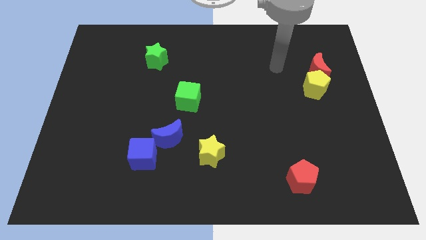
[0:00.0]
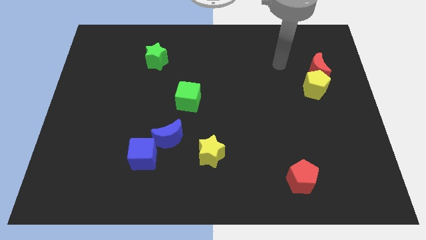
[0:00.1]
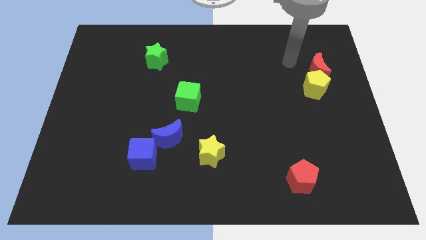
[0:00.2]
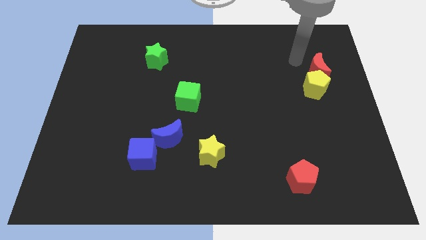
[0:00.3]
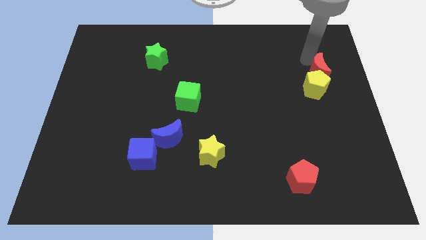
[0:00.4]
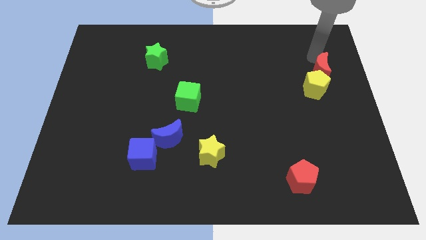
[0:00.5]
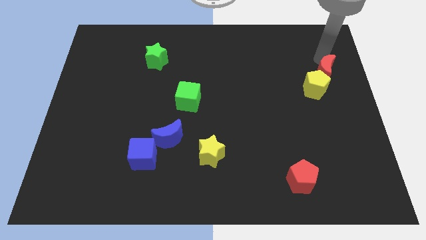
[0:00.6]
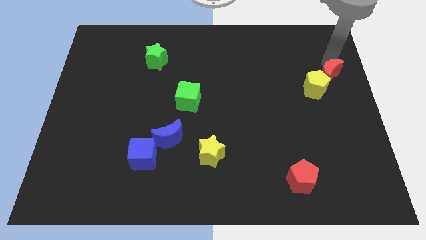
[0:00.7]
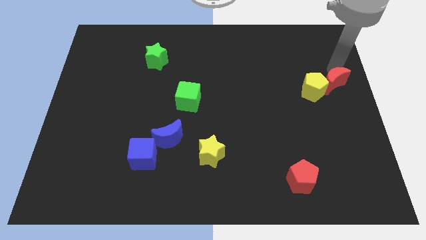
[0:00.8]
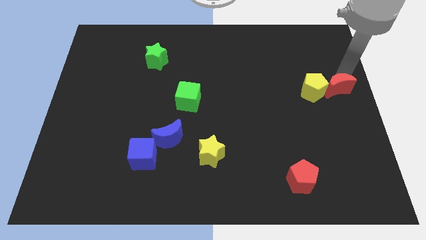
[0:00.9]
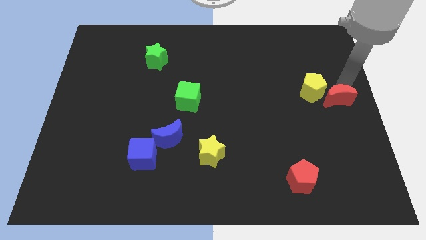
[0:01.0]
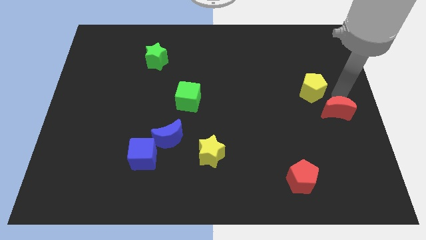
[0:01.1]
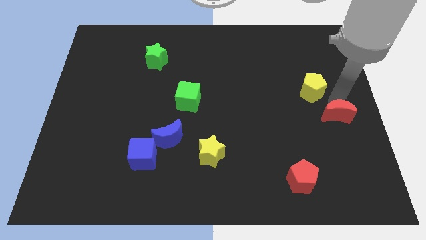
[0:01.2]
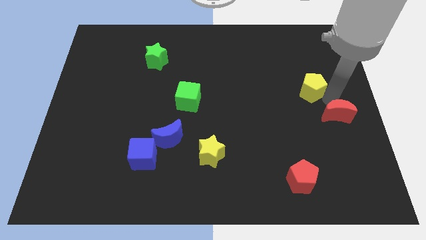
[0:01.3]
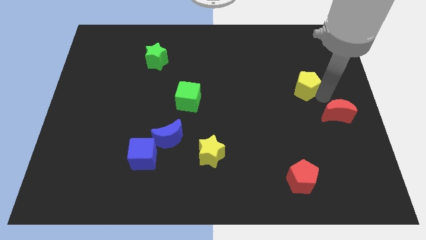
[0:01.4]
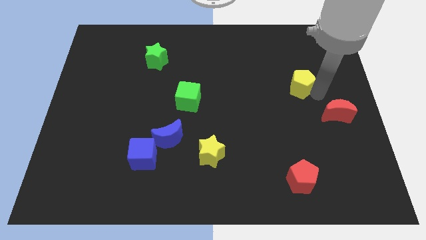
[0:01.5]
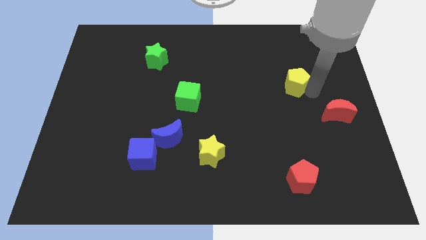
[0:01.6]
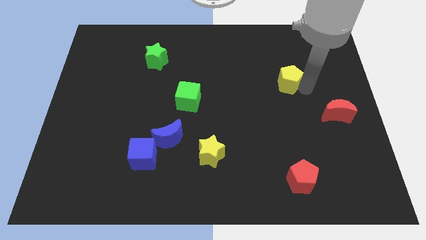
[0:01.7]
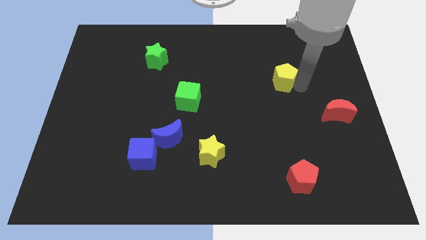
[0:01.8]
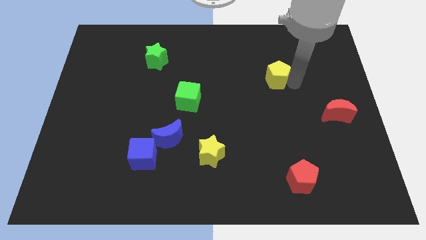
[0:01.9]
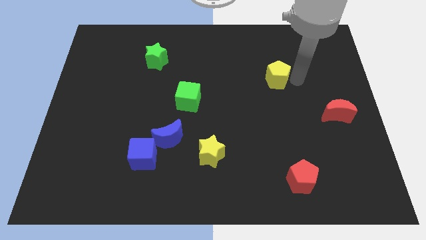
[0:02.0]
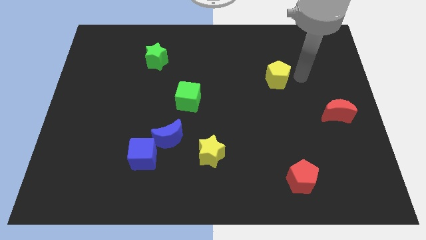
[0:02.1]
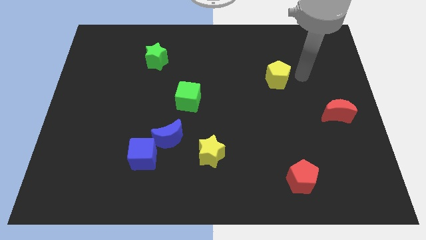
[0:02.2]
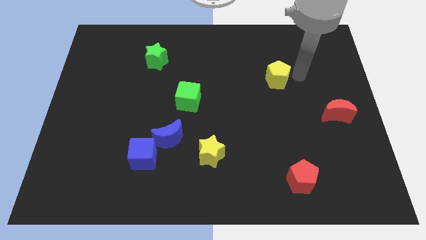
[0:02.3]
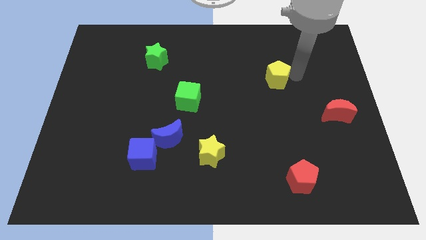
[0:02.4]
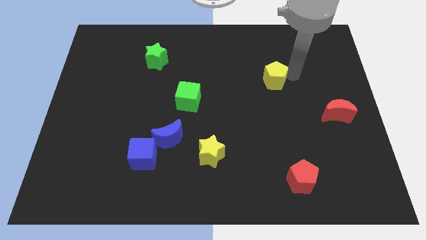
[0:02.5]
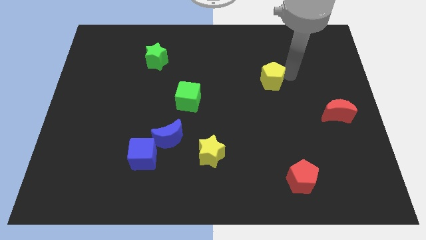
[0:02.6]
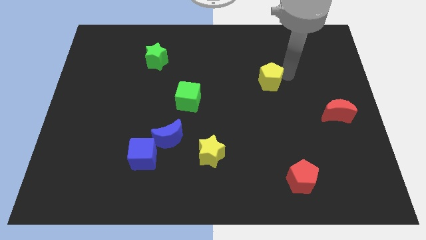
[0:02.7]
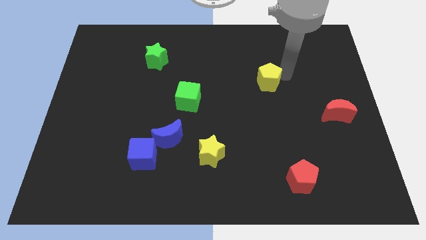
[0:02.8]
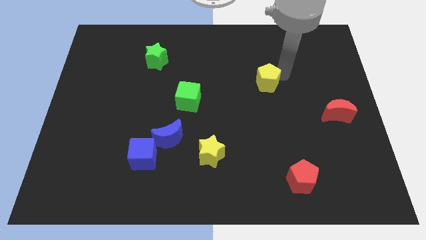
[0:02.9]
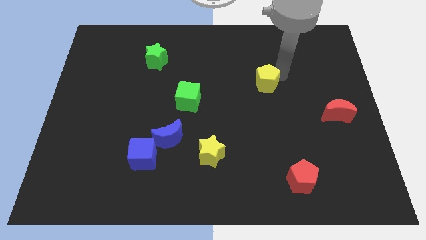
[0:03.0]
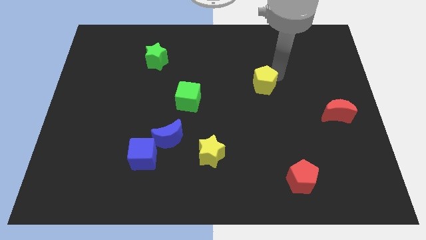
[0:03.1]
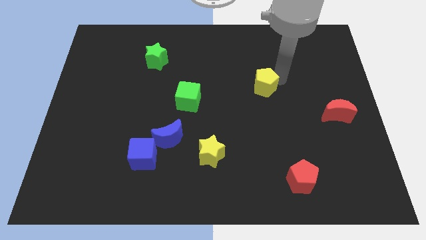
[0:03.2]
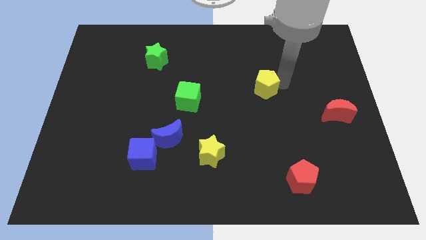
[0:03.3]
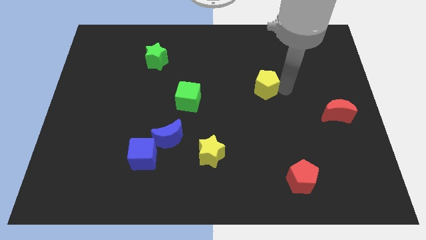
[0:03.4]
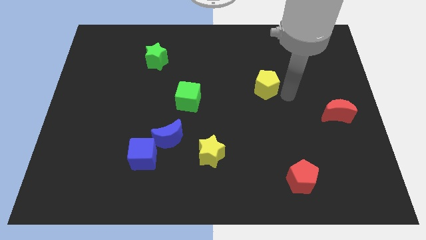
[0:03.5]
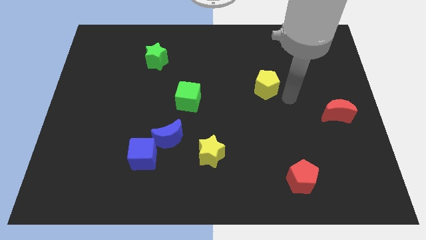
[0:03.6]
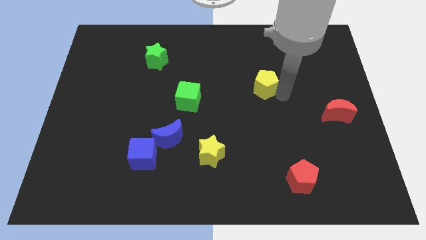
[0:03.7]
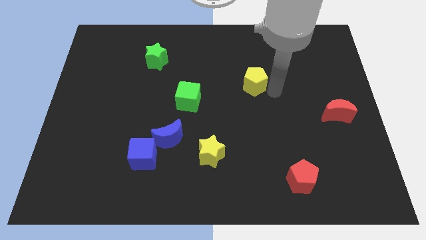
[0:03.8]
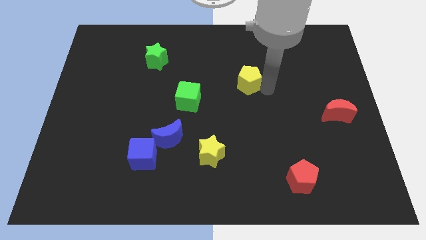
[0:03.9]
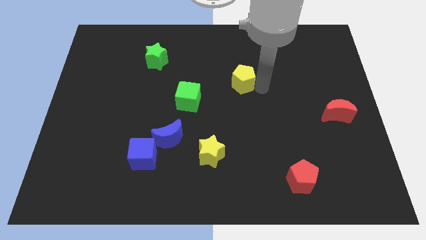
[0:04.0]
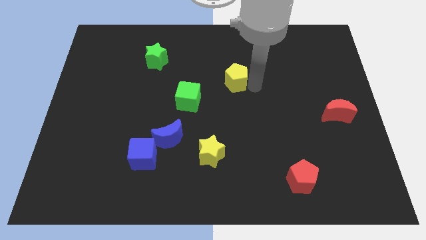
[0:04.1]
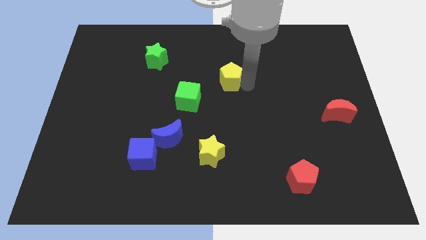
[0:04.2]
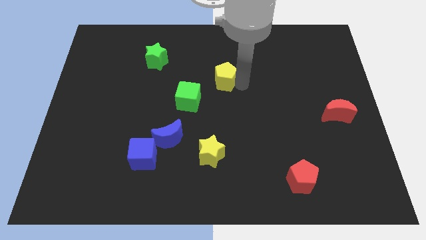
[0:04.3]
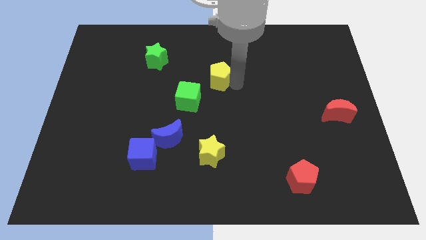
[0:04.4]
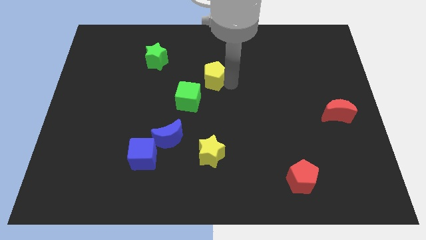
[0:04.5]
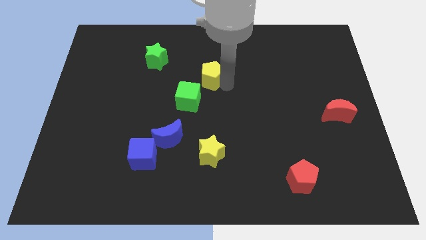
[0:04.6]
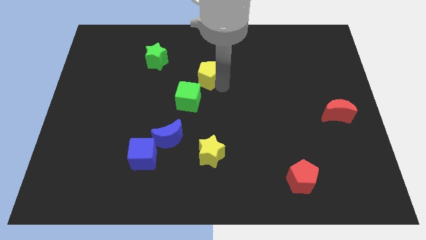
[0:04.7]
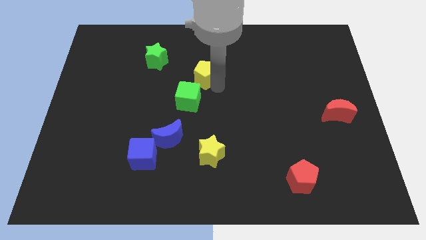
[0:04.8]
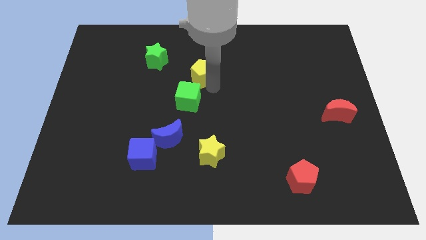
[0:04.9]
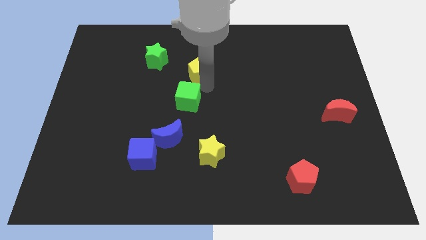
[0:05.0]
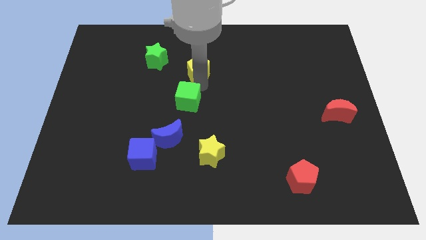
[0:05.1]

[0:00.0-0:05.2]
push the yellow pentagon to the right of the green star

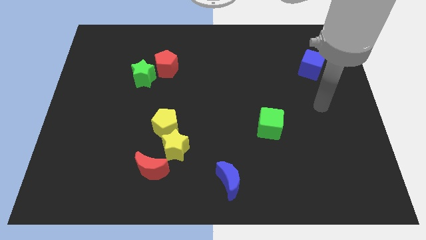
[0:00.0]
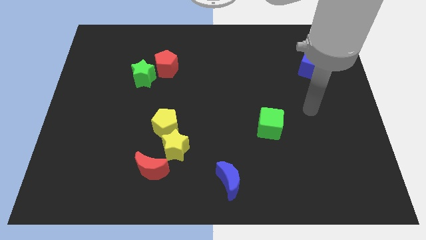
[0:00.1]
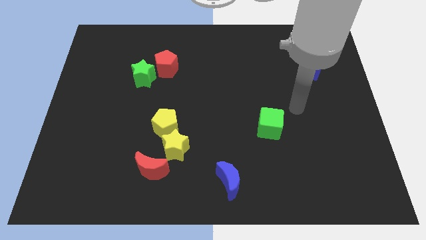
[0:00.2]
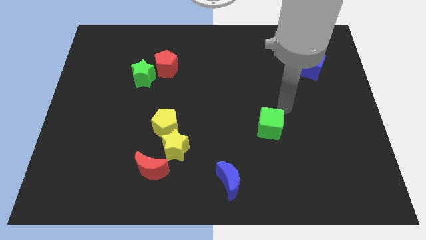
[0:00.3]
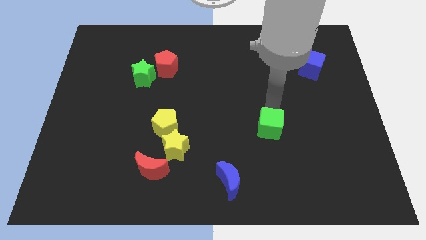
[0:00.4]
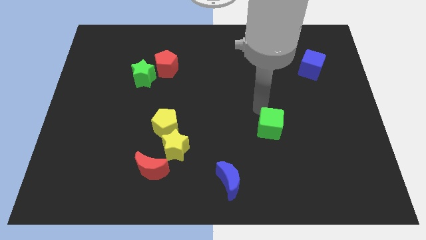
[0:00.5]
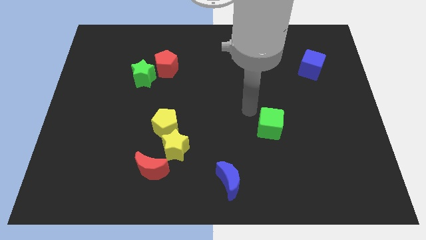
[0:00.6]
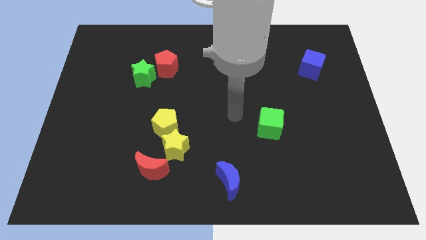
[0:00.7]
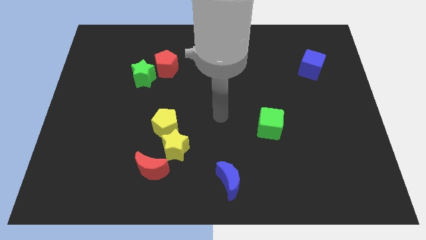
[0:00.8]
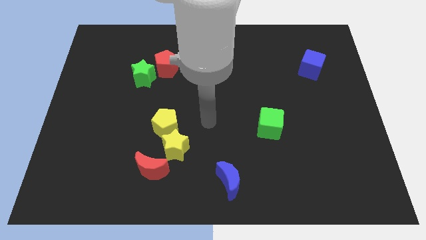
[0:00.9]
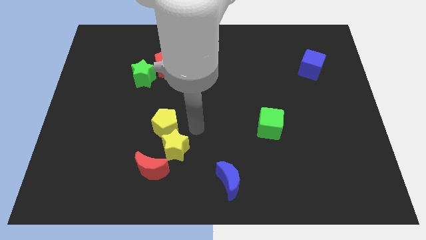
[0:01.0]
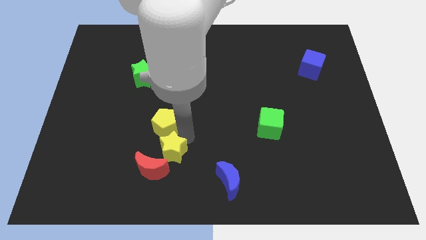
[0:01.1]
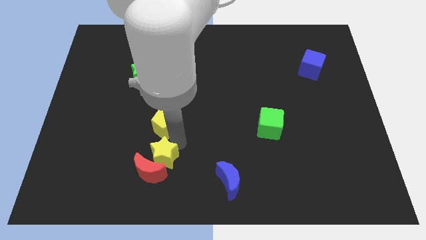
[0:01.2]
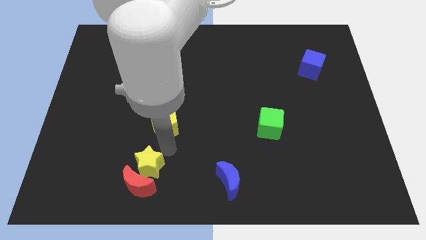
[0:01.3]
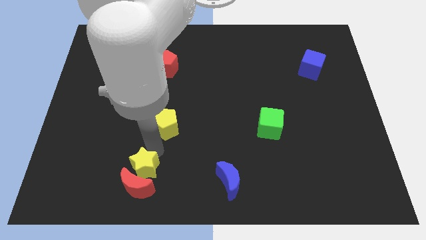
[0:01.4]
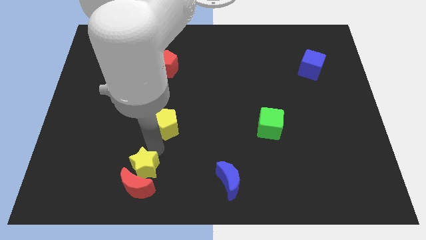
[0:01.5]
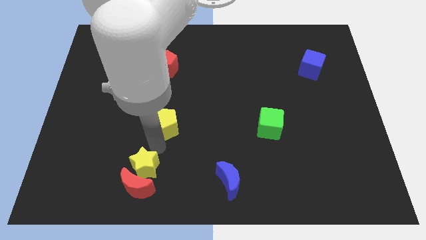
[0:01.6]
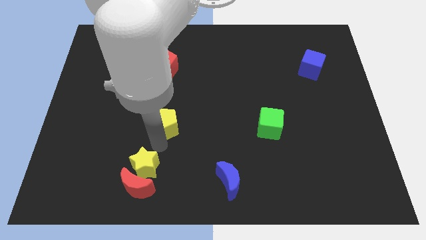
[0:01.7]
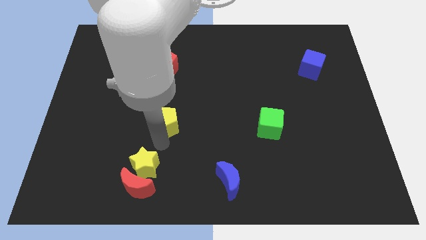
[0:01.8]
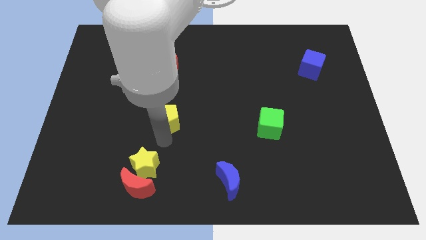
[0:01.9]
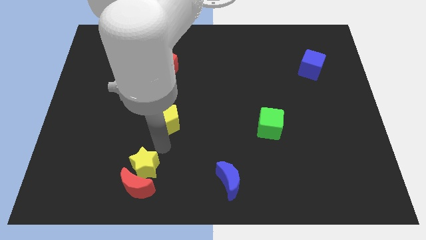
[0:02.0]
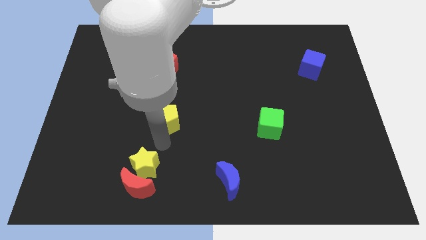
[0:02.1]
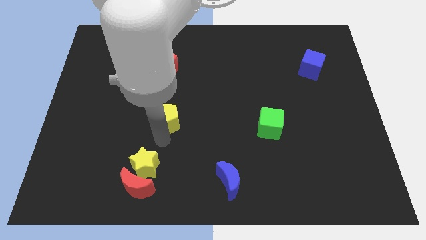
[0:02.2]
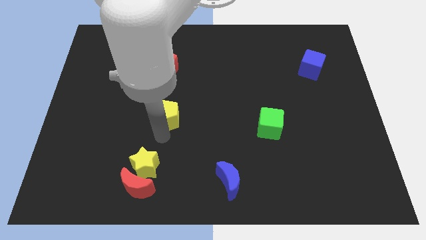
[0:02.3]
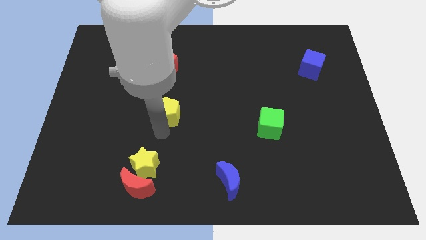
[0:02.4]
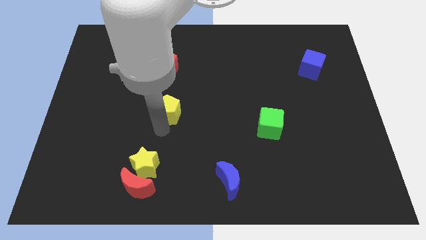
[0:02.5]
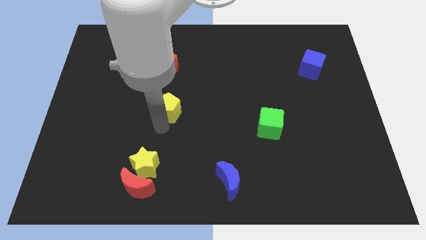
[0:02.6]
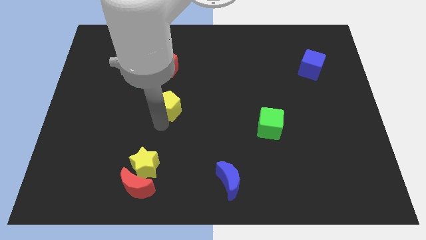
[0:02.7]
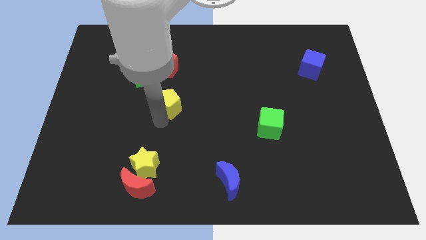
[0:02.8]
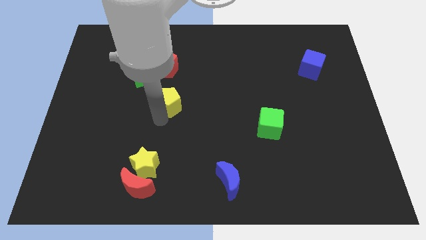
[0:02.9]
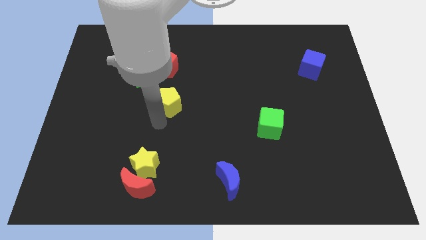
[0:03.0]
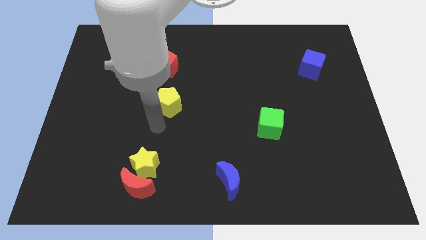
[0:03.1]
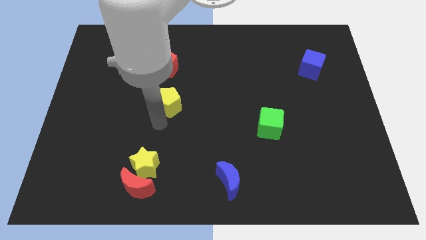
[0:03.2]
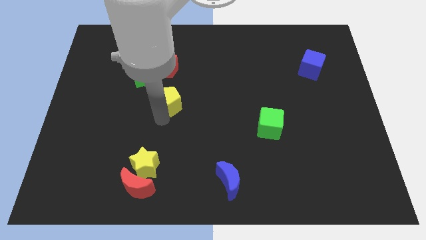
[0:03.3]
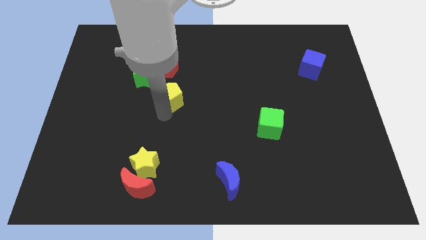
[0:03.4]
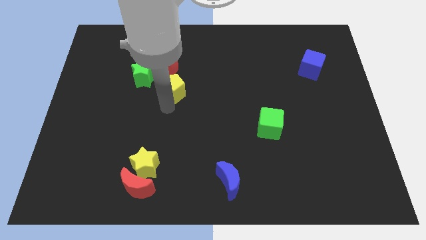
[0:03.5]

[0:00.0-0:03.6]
move the yellow pentagon to the right side of the green star
